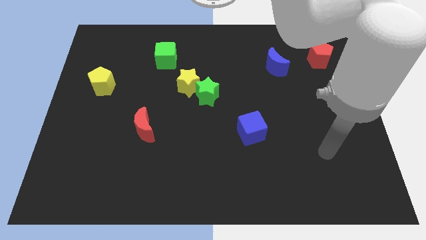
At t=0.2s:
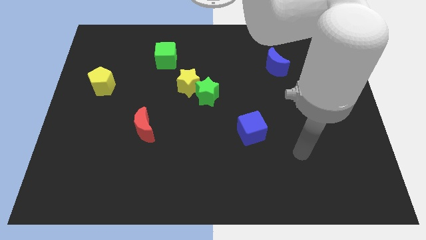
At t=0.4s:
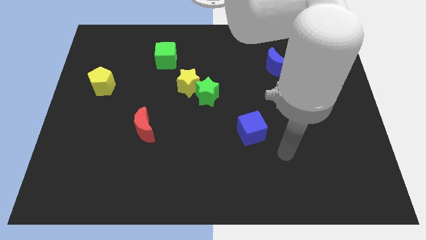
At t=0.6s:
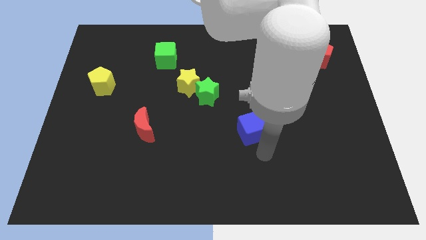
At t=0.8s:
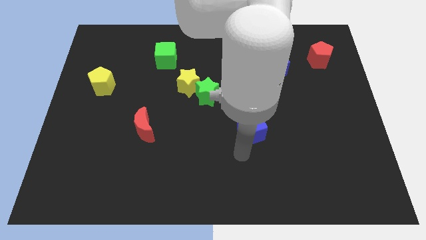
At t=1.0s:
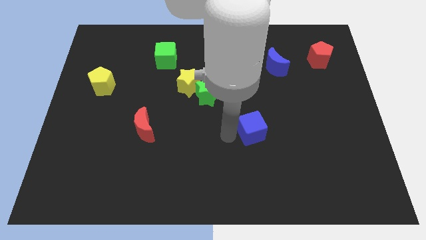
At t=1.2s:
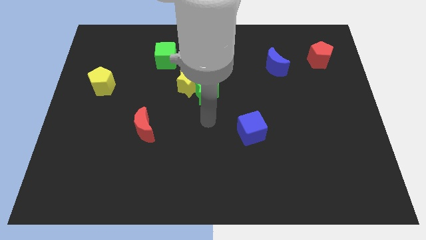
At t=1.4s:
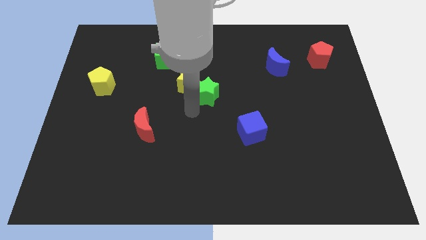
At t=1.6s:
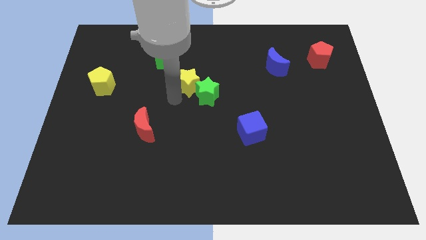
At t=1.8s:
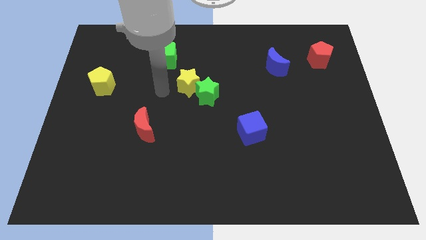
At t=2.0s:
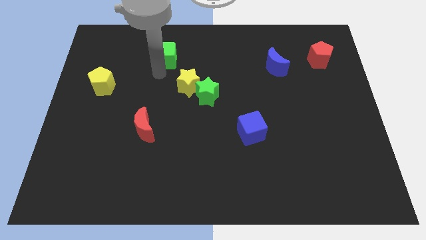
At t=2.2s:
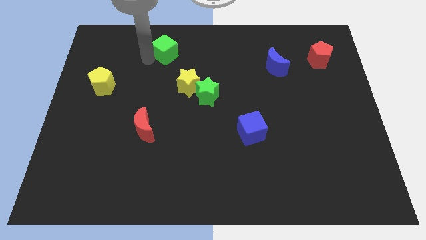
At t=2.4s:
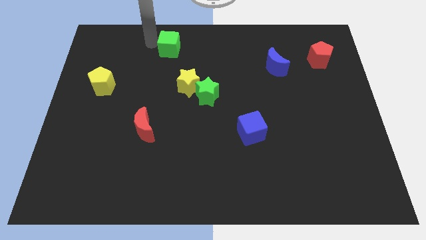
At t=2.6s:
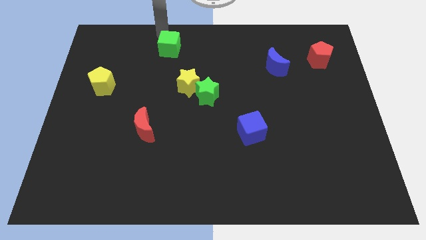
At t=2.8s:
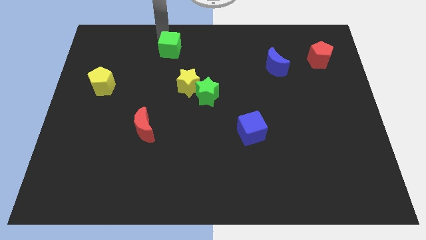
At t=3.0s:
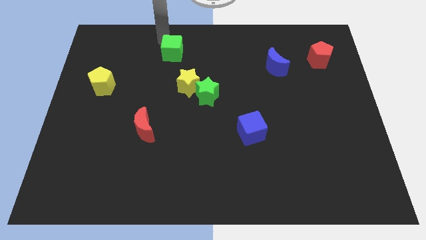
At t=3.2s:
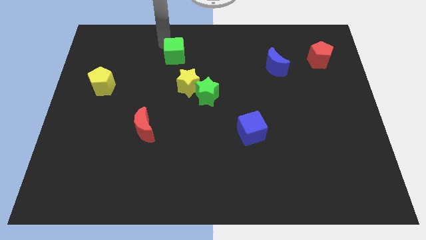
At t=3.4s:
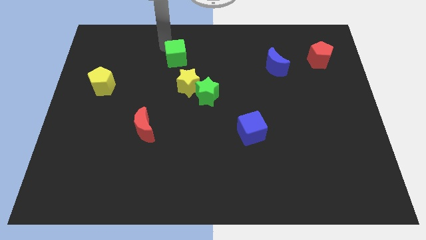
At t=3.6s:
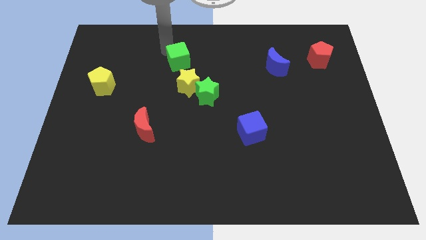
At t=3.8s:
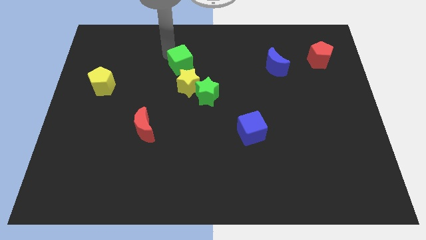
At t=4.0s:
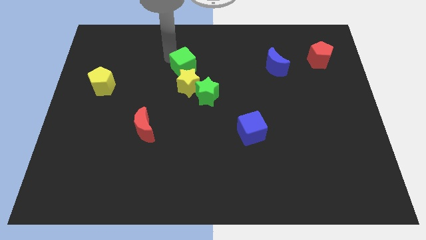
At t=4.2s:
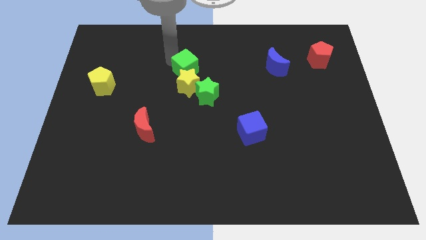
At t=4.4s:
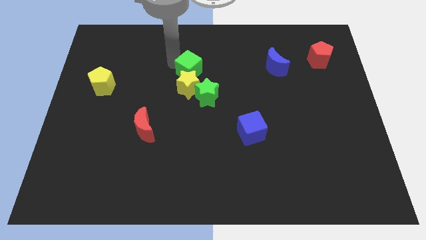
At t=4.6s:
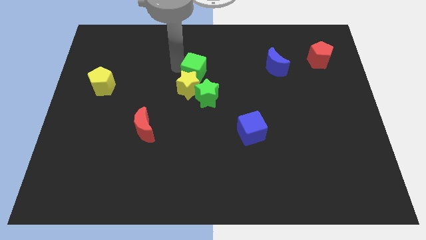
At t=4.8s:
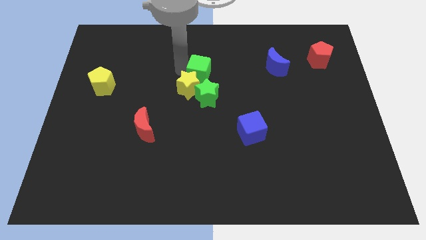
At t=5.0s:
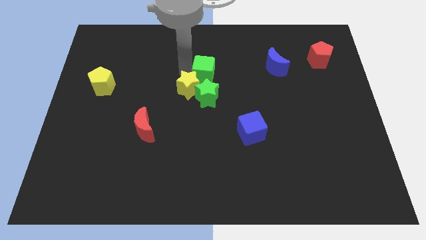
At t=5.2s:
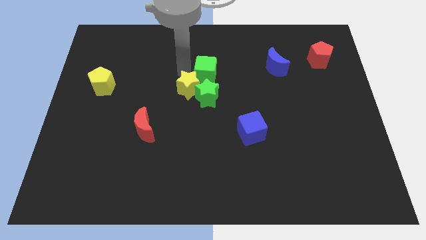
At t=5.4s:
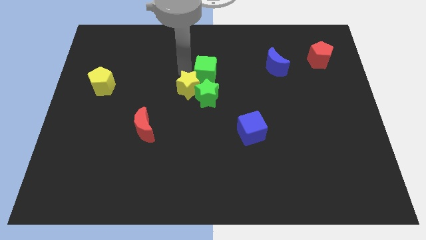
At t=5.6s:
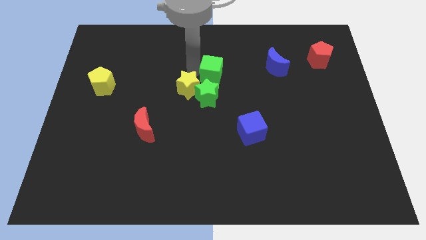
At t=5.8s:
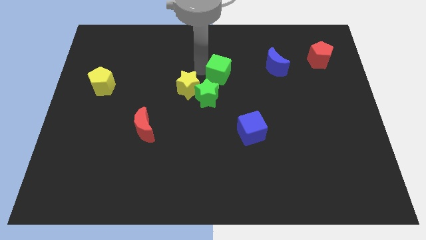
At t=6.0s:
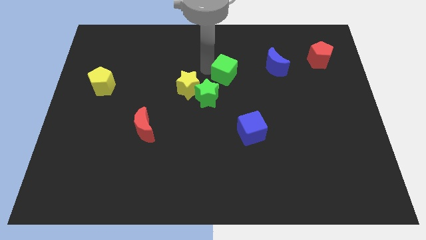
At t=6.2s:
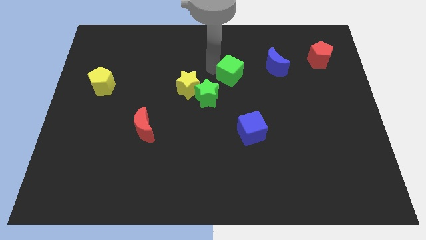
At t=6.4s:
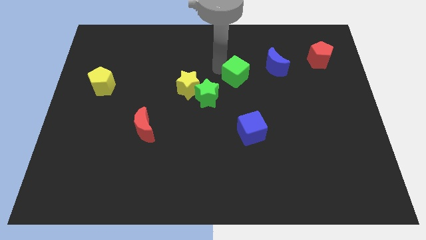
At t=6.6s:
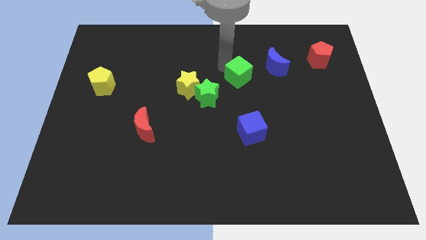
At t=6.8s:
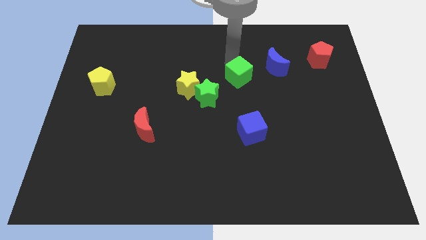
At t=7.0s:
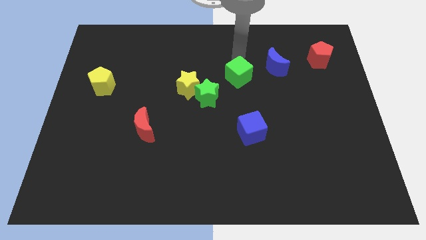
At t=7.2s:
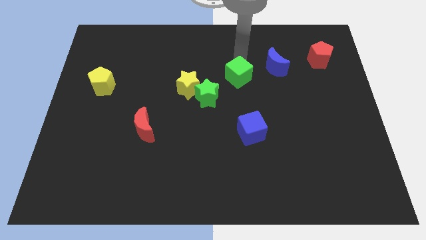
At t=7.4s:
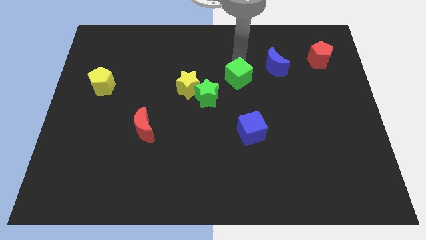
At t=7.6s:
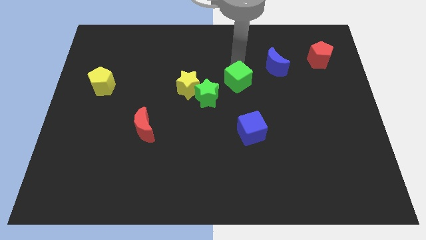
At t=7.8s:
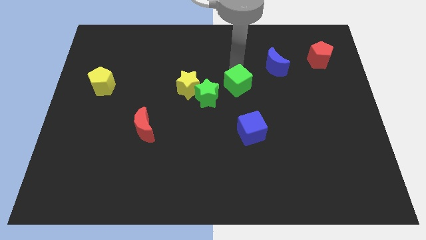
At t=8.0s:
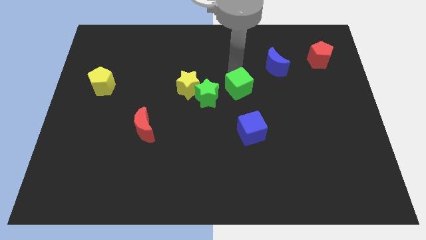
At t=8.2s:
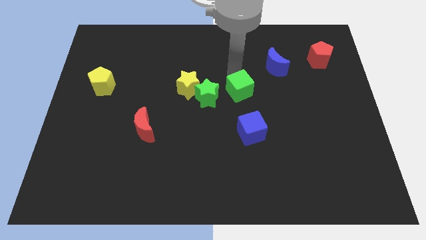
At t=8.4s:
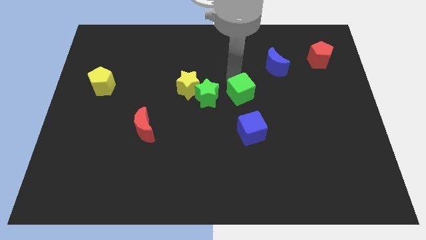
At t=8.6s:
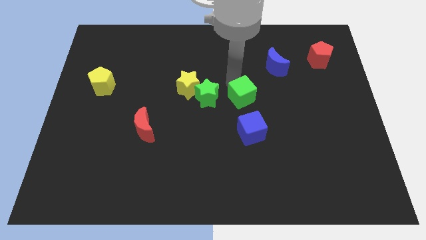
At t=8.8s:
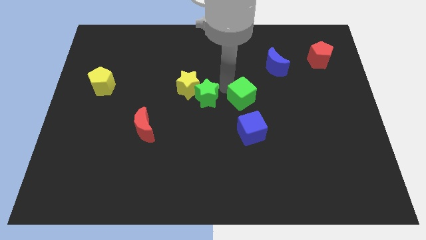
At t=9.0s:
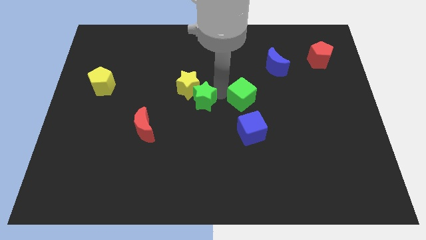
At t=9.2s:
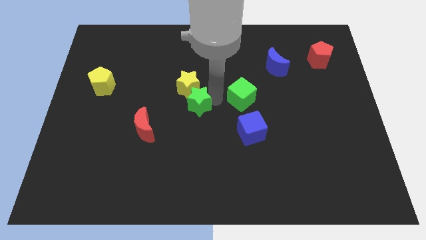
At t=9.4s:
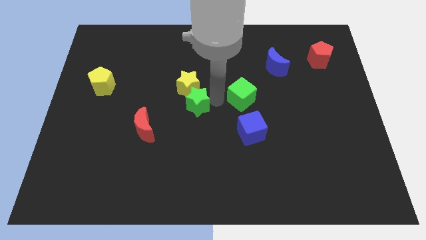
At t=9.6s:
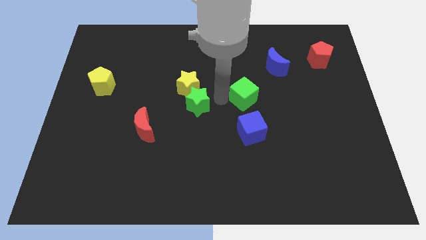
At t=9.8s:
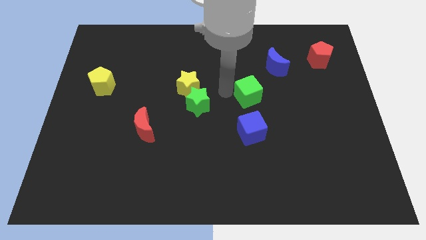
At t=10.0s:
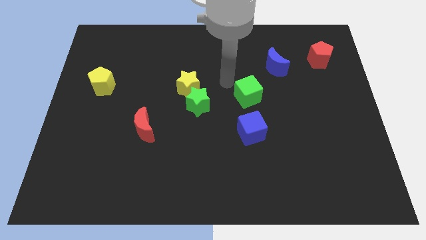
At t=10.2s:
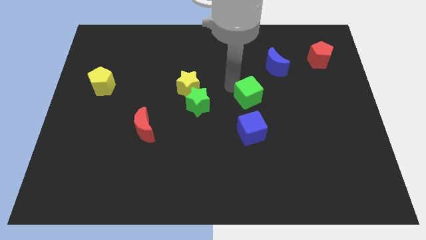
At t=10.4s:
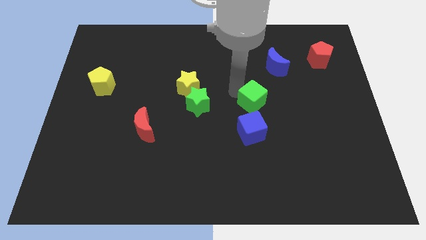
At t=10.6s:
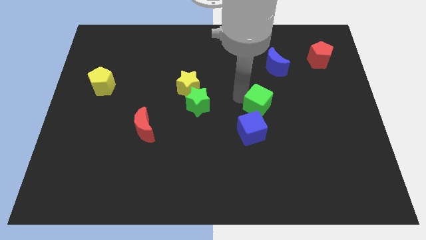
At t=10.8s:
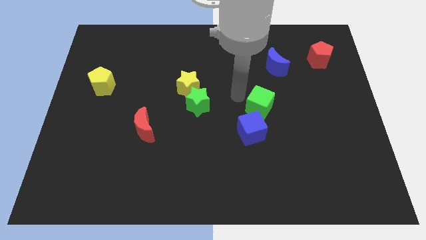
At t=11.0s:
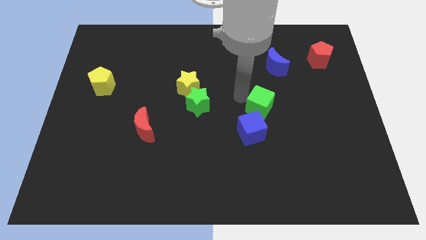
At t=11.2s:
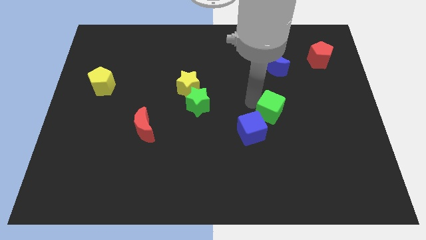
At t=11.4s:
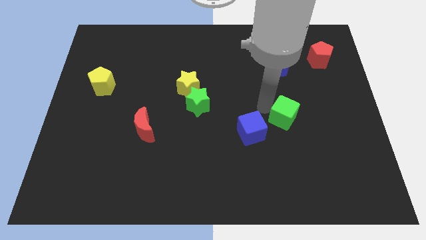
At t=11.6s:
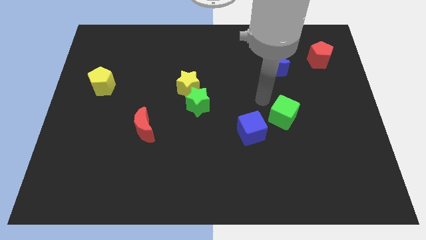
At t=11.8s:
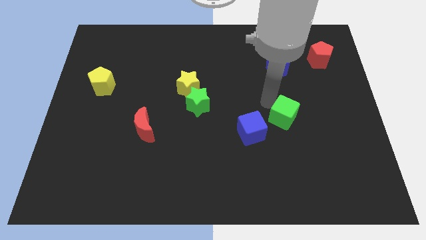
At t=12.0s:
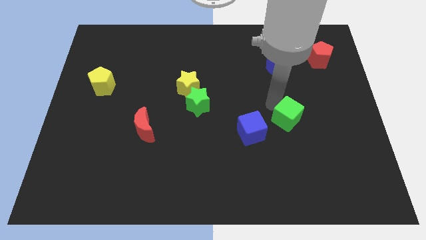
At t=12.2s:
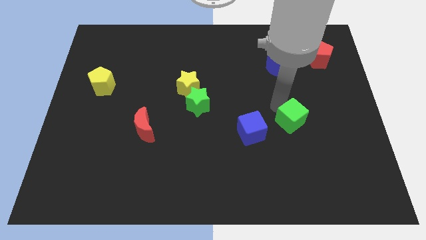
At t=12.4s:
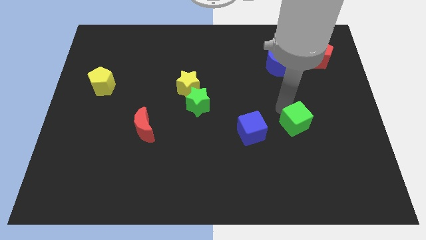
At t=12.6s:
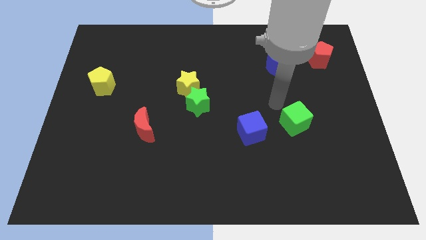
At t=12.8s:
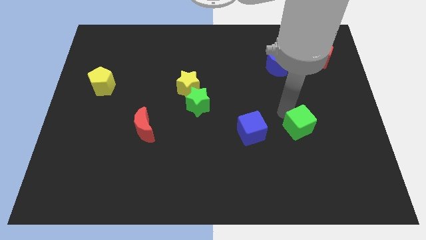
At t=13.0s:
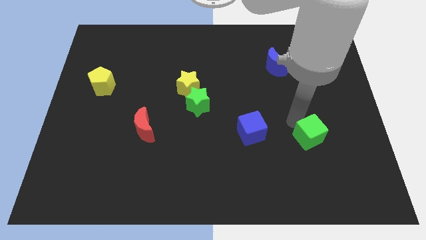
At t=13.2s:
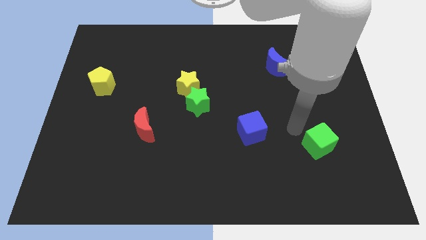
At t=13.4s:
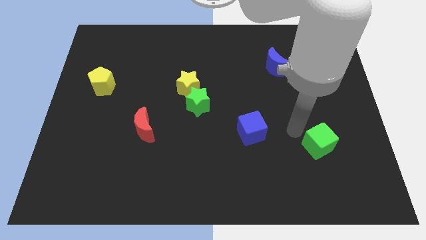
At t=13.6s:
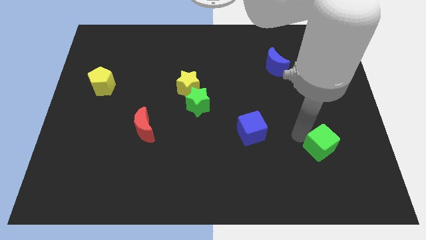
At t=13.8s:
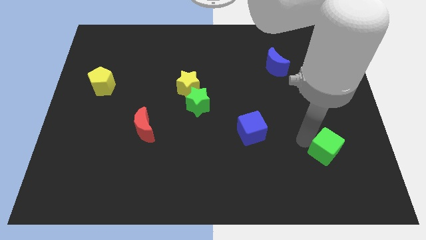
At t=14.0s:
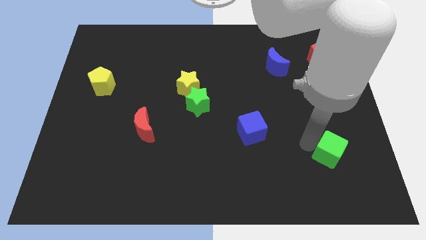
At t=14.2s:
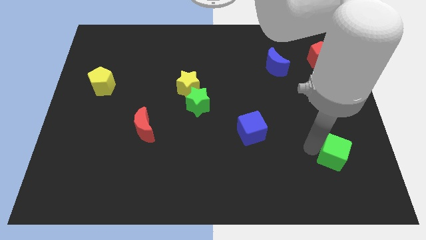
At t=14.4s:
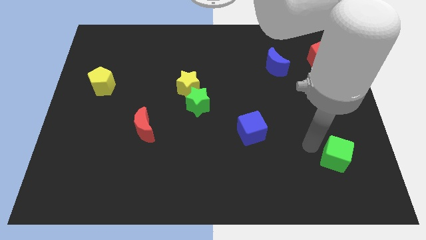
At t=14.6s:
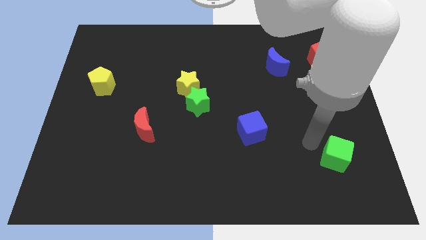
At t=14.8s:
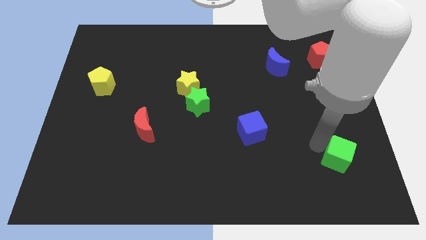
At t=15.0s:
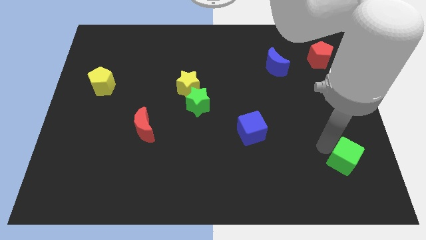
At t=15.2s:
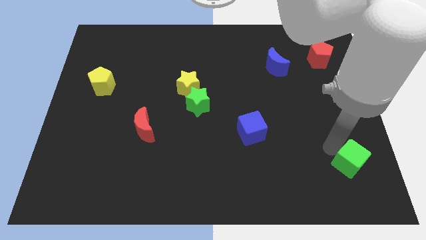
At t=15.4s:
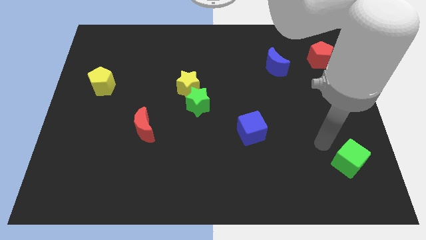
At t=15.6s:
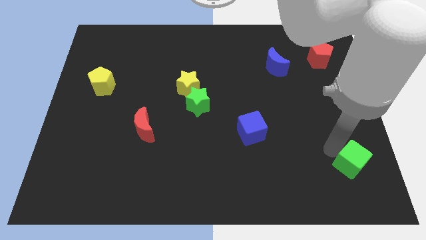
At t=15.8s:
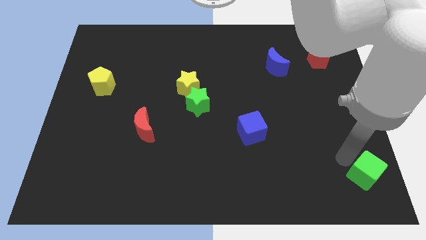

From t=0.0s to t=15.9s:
move the green cube to the bottom right of the board
